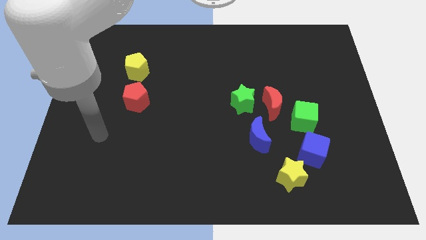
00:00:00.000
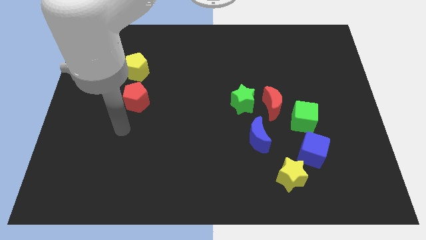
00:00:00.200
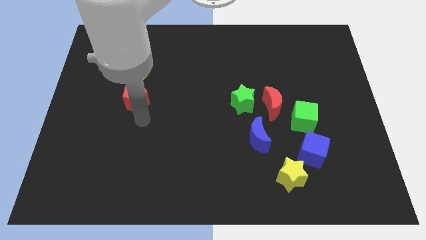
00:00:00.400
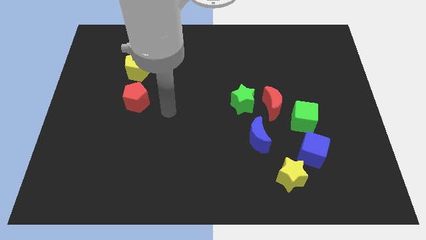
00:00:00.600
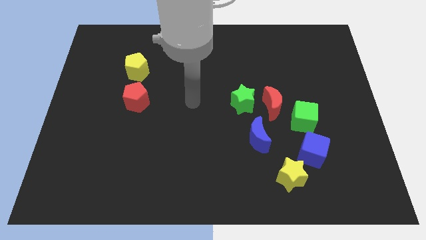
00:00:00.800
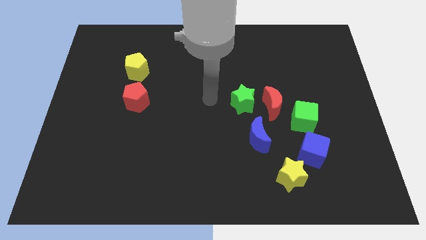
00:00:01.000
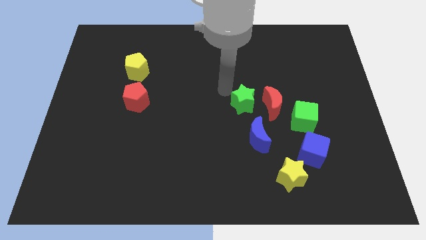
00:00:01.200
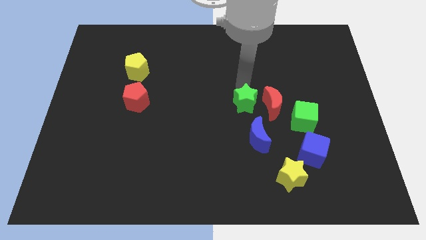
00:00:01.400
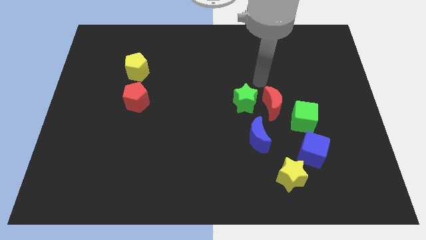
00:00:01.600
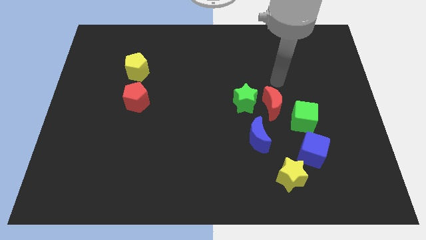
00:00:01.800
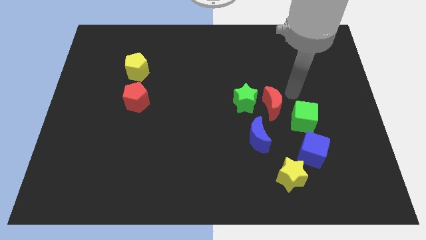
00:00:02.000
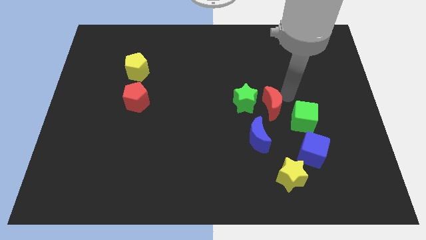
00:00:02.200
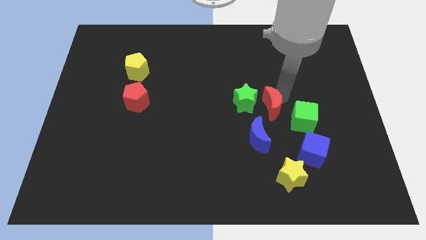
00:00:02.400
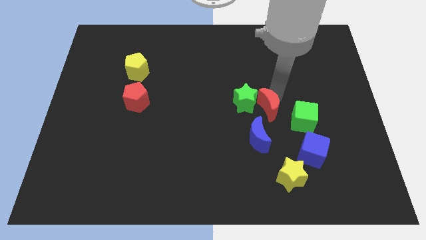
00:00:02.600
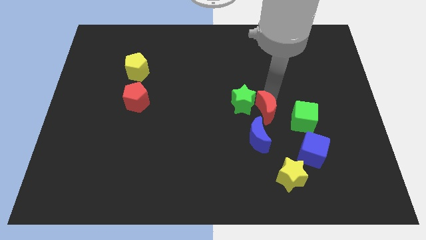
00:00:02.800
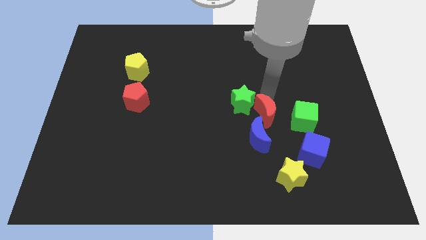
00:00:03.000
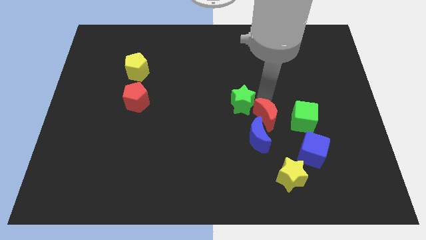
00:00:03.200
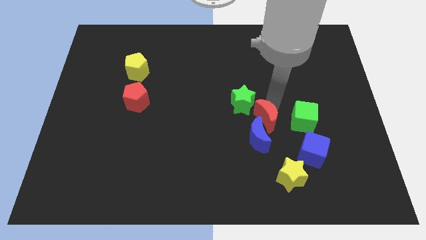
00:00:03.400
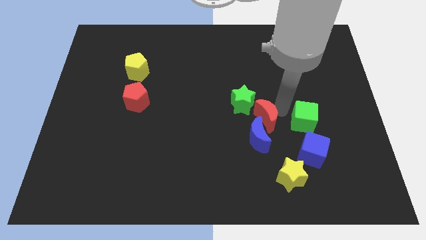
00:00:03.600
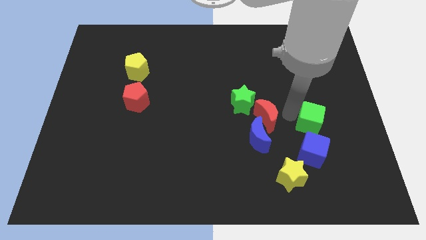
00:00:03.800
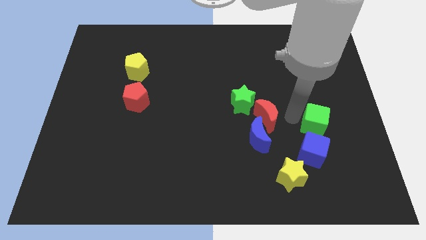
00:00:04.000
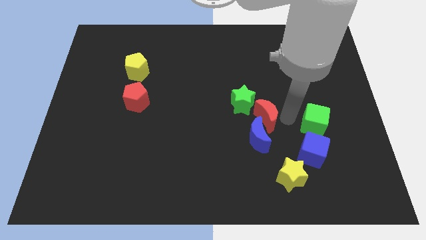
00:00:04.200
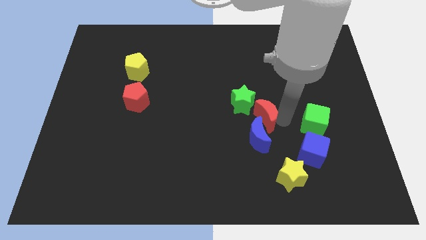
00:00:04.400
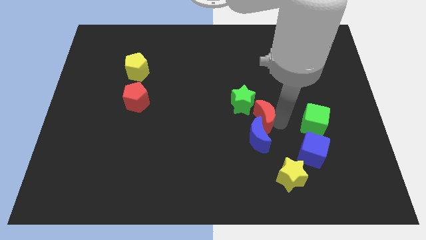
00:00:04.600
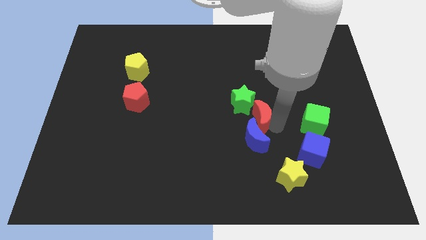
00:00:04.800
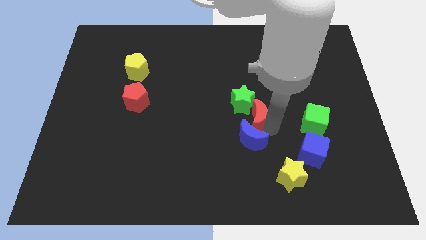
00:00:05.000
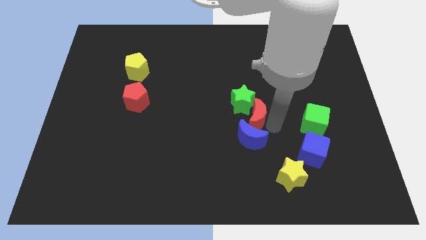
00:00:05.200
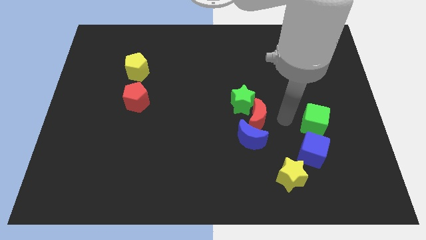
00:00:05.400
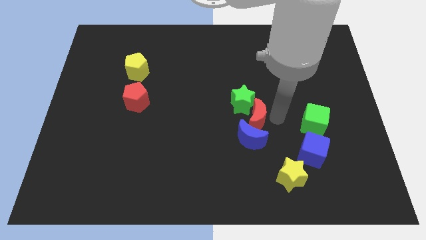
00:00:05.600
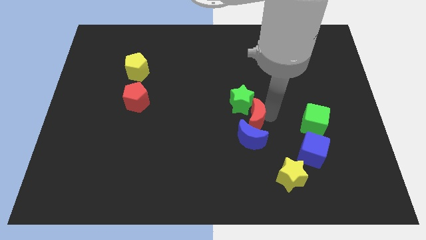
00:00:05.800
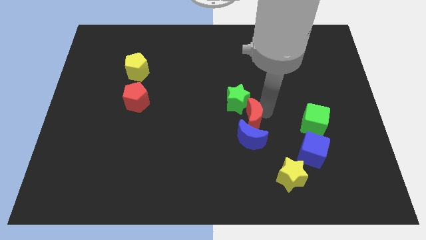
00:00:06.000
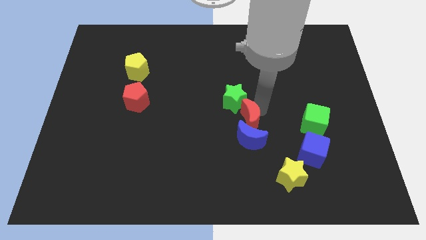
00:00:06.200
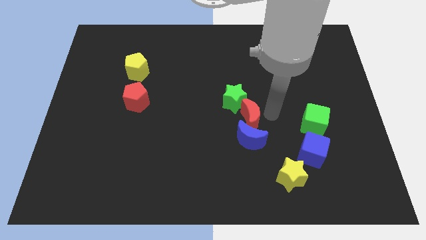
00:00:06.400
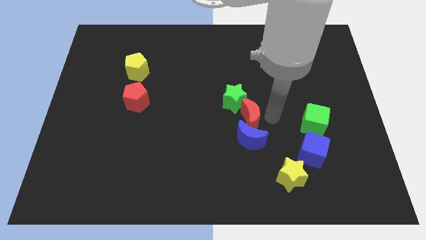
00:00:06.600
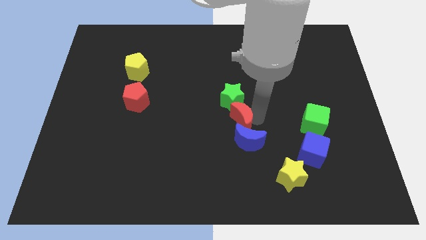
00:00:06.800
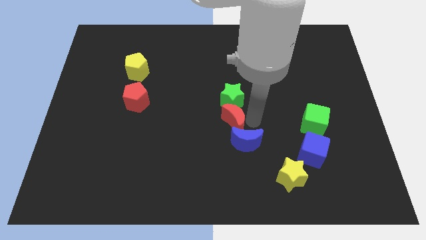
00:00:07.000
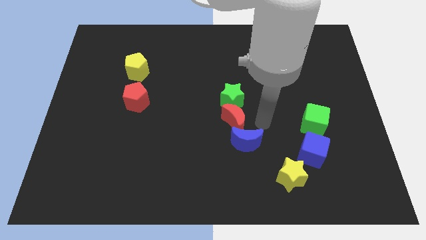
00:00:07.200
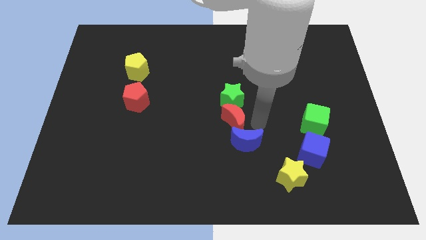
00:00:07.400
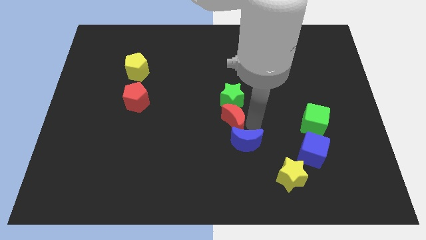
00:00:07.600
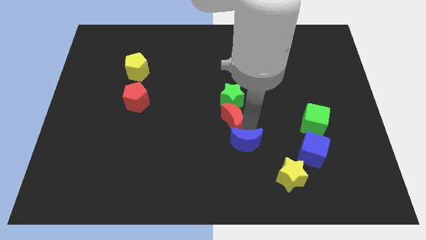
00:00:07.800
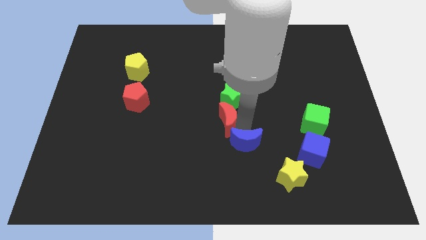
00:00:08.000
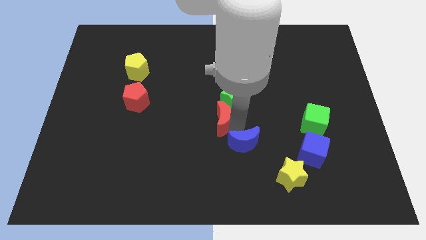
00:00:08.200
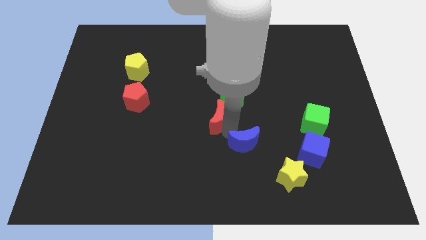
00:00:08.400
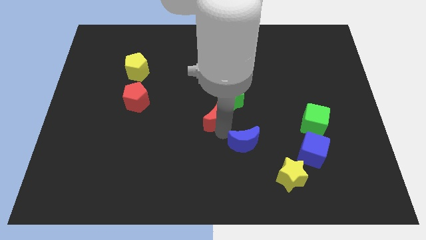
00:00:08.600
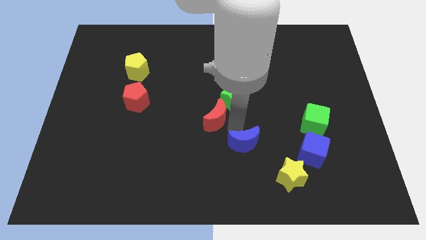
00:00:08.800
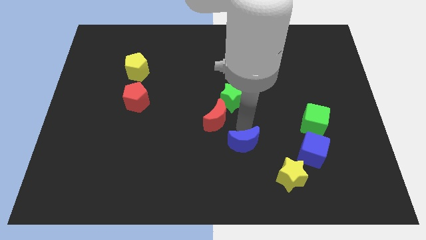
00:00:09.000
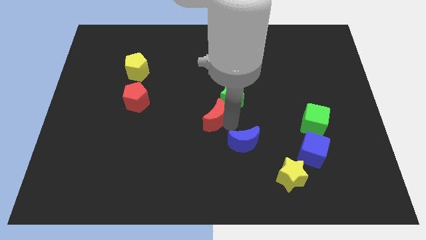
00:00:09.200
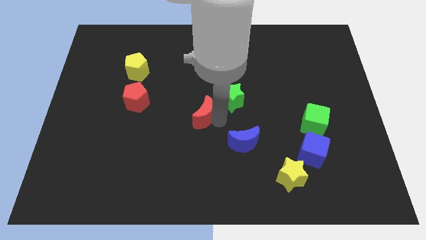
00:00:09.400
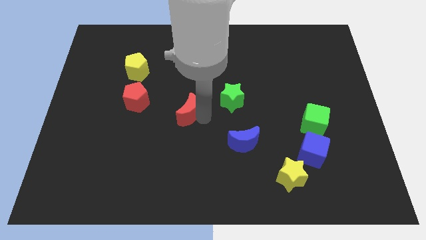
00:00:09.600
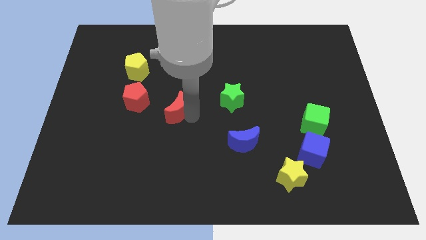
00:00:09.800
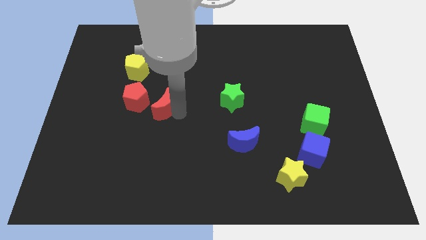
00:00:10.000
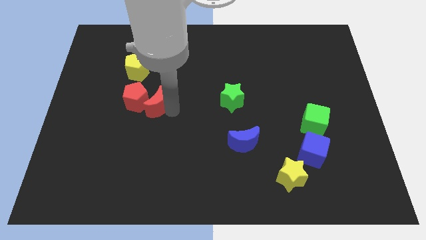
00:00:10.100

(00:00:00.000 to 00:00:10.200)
put the red moon next to the red pentagon
